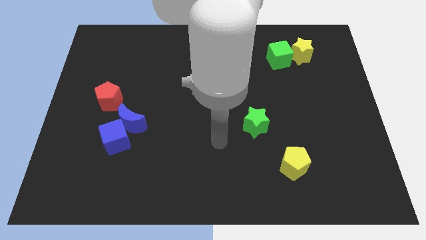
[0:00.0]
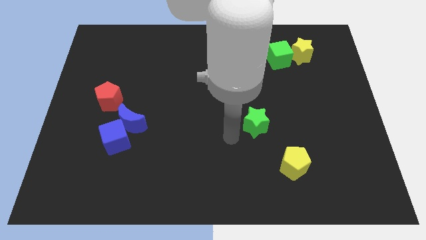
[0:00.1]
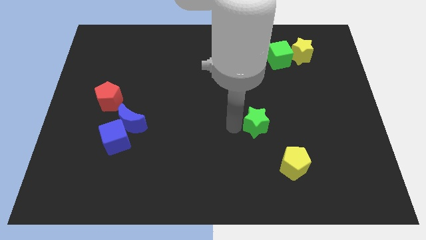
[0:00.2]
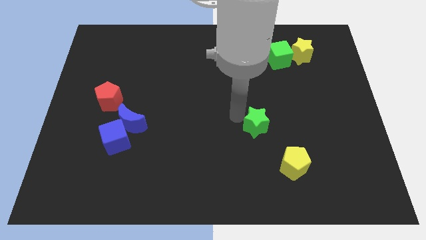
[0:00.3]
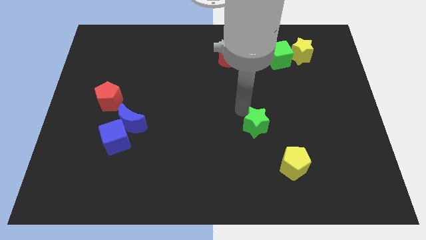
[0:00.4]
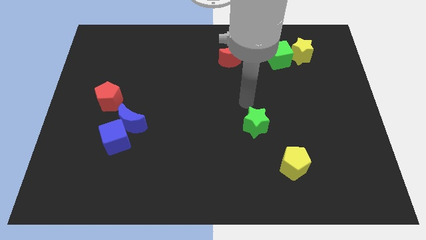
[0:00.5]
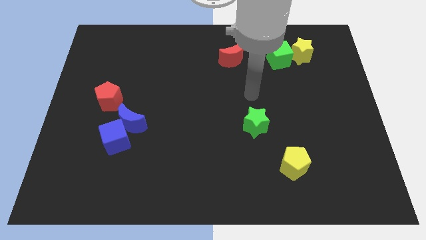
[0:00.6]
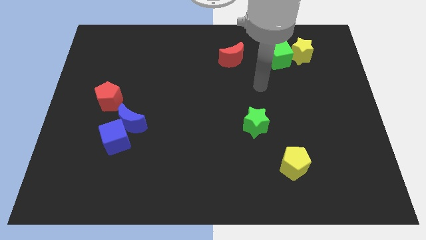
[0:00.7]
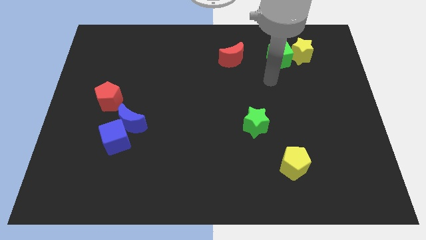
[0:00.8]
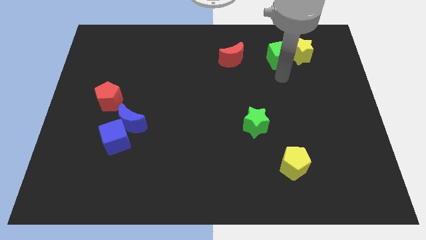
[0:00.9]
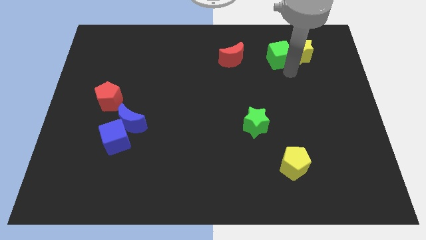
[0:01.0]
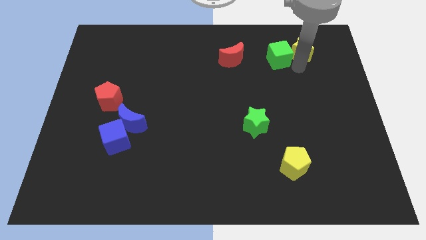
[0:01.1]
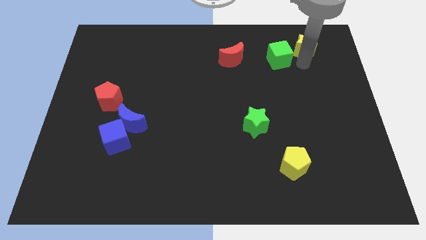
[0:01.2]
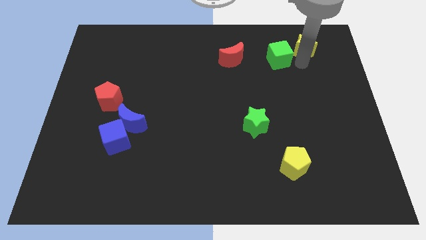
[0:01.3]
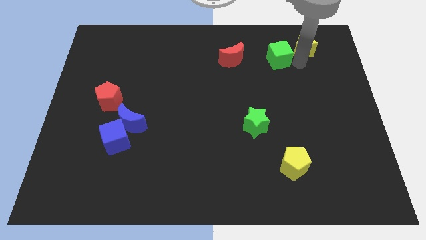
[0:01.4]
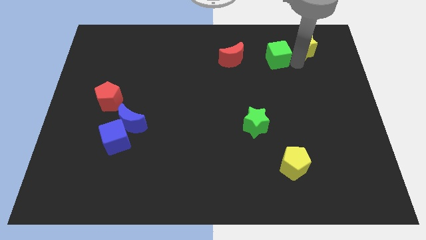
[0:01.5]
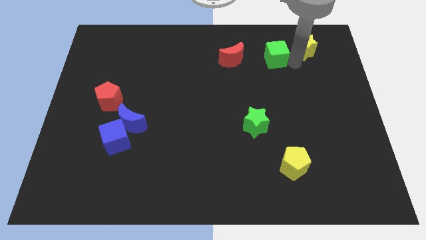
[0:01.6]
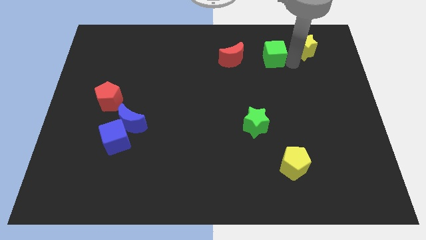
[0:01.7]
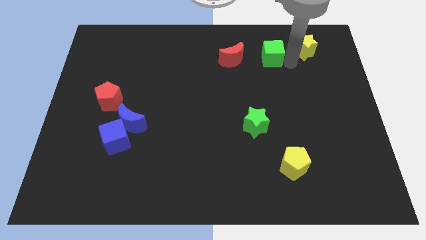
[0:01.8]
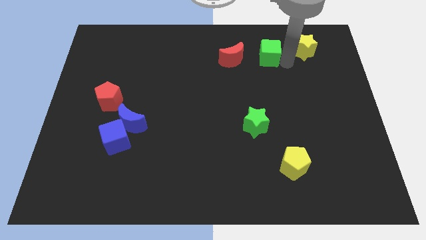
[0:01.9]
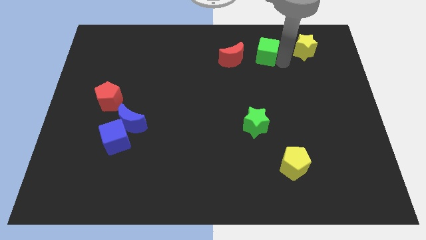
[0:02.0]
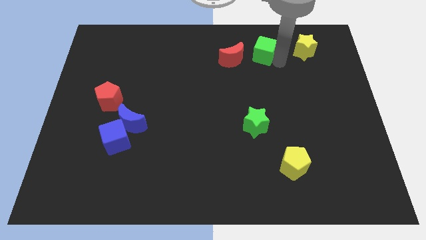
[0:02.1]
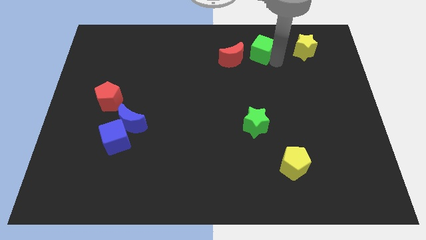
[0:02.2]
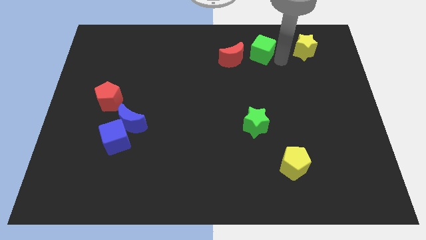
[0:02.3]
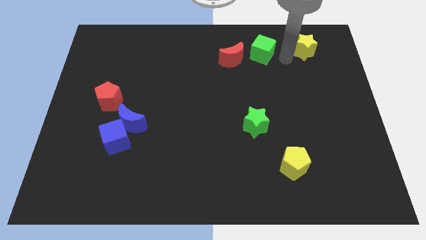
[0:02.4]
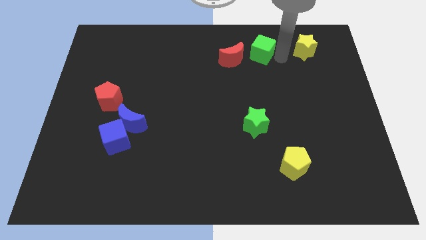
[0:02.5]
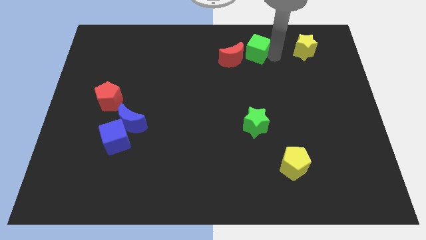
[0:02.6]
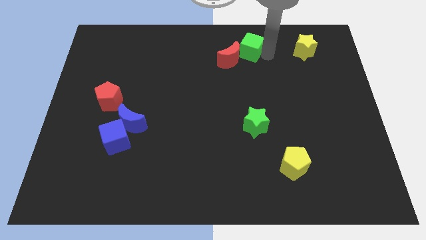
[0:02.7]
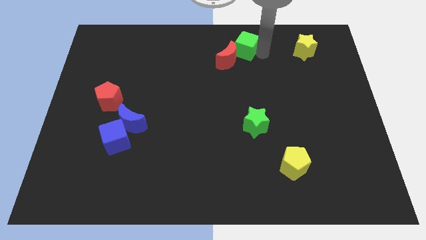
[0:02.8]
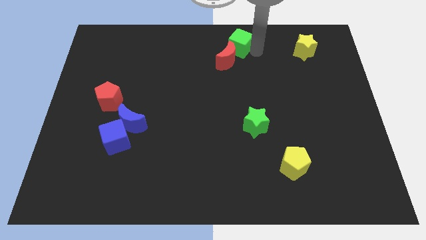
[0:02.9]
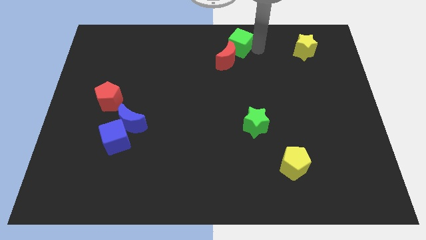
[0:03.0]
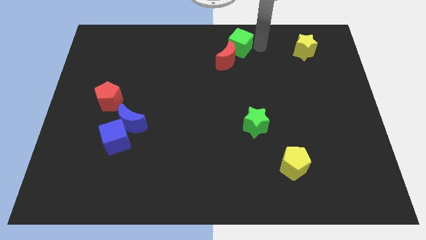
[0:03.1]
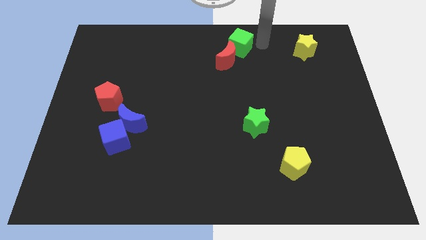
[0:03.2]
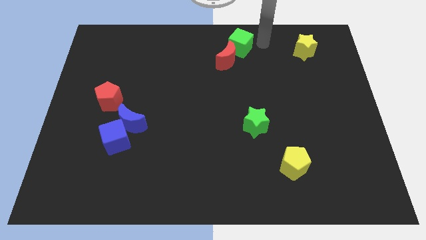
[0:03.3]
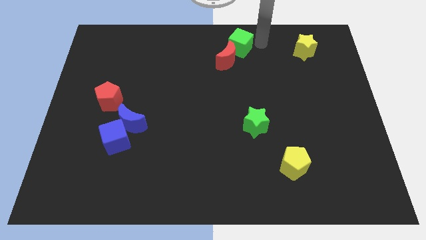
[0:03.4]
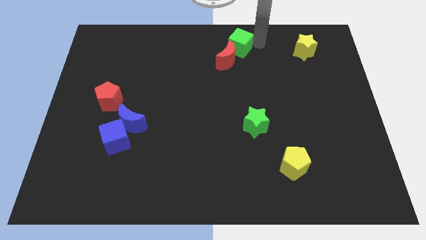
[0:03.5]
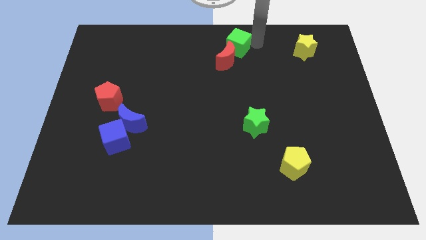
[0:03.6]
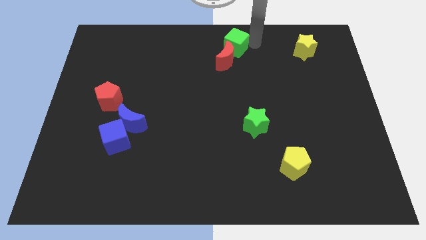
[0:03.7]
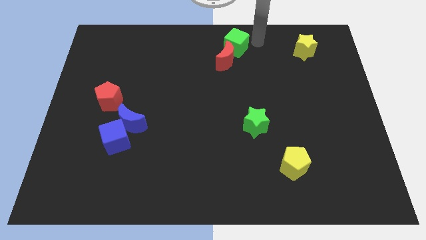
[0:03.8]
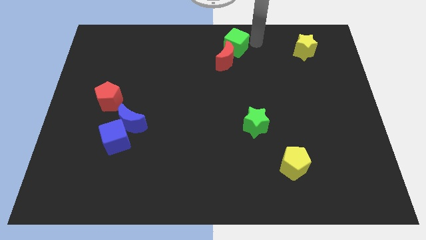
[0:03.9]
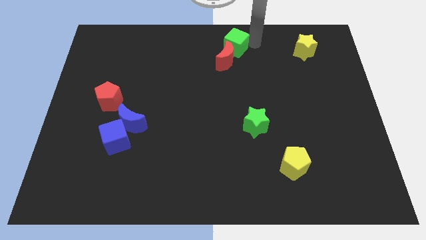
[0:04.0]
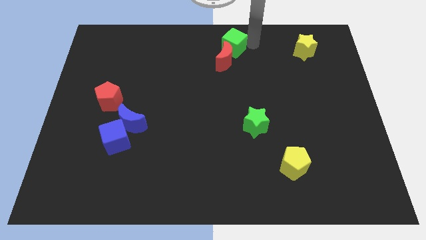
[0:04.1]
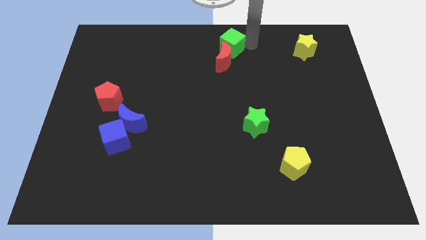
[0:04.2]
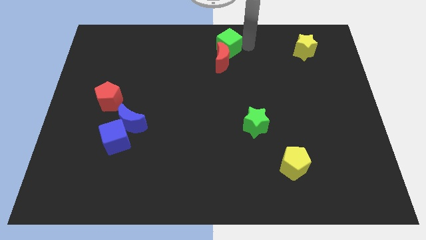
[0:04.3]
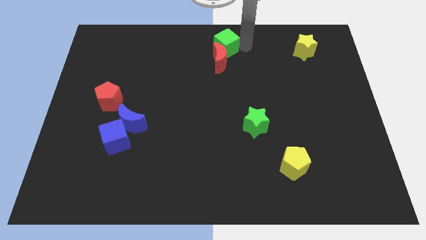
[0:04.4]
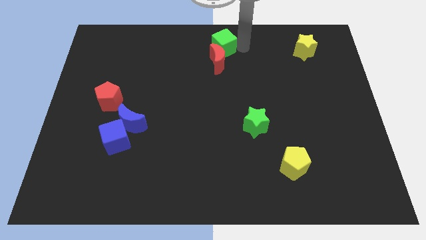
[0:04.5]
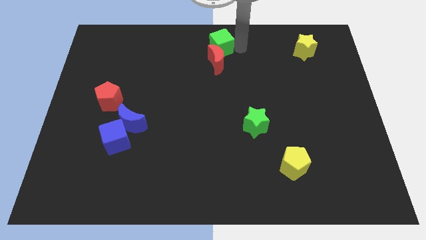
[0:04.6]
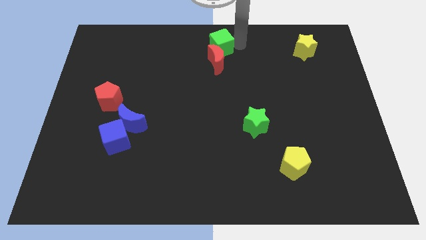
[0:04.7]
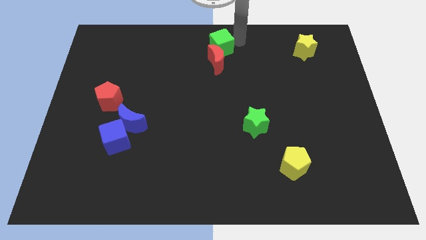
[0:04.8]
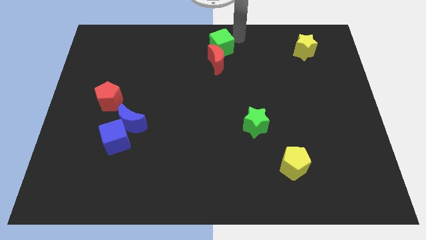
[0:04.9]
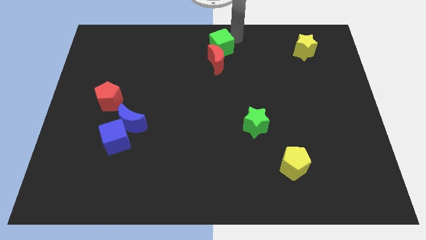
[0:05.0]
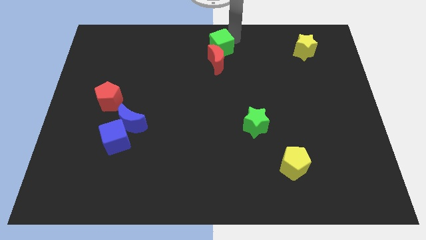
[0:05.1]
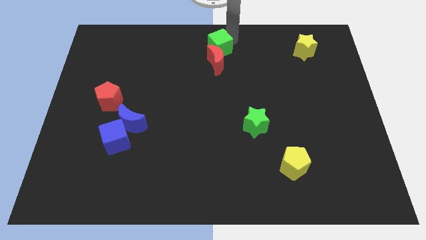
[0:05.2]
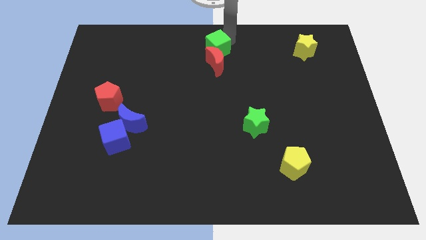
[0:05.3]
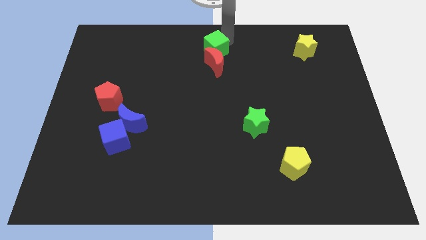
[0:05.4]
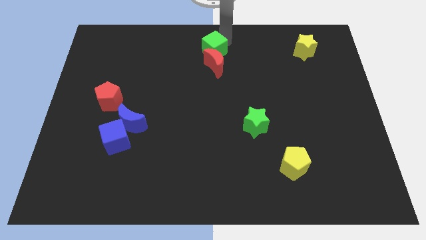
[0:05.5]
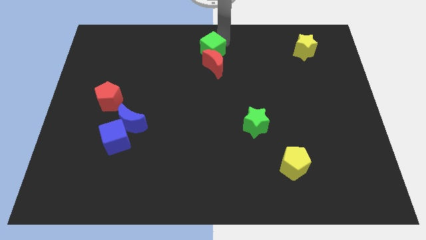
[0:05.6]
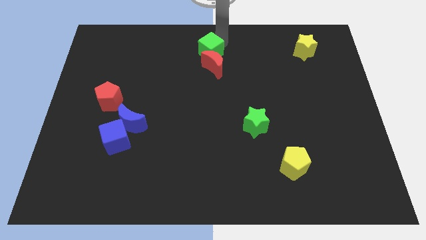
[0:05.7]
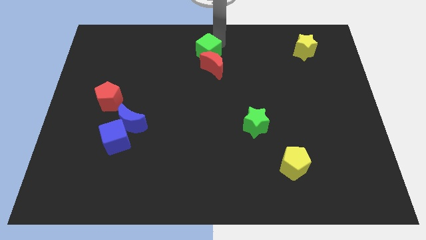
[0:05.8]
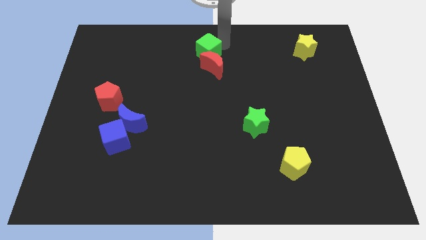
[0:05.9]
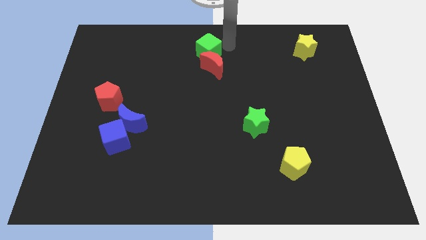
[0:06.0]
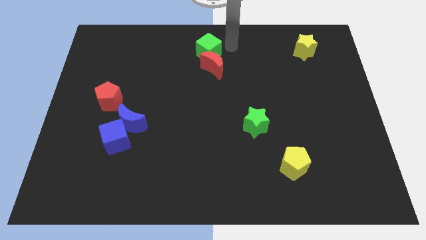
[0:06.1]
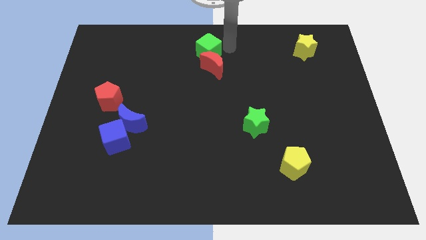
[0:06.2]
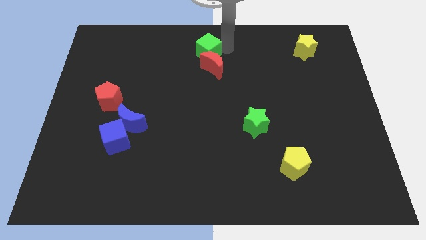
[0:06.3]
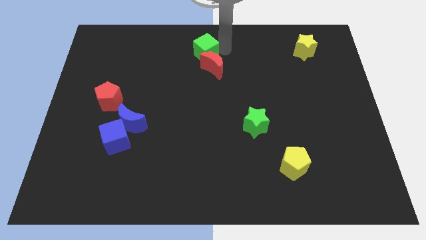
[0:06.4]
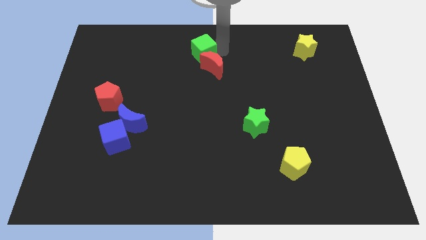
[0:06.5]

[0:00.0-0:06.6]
slide the green cube left

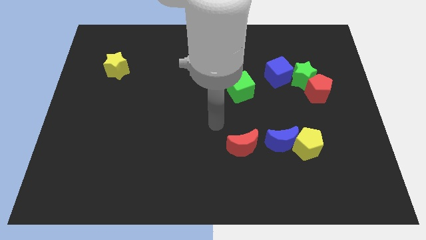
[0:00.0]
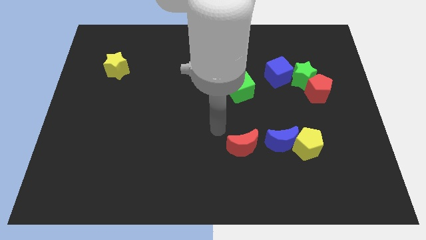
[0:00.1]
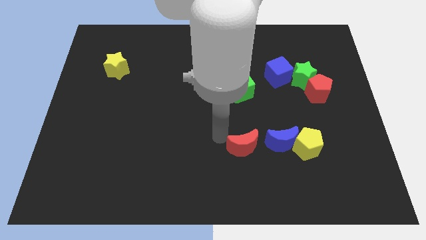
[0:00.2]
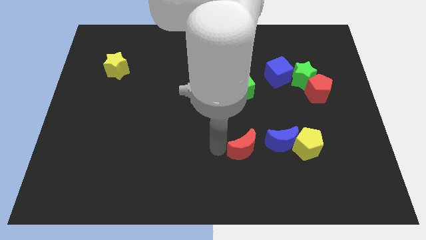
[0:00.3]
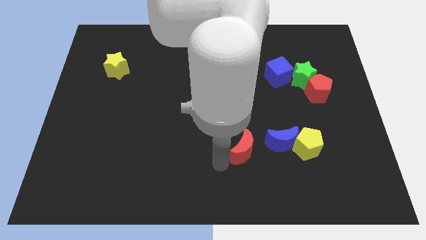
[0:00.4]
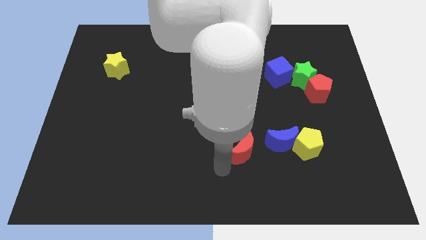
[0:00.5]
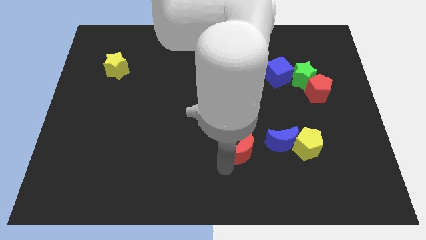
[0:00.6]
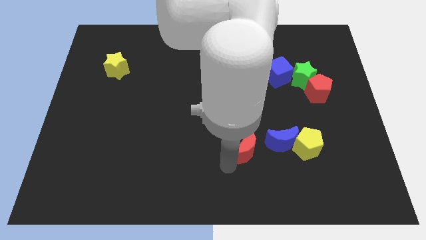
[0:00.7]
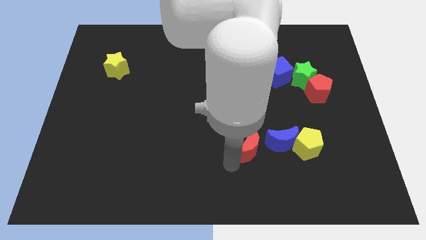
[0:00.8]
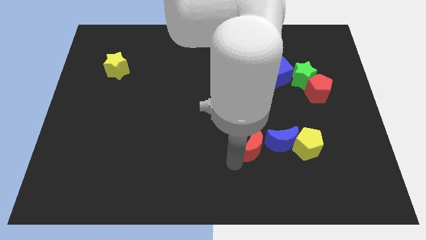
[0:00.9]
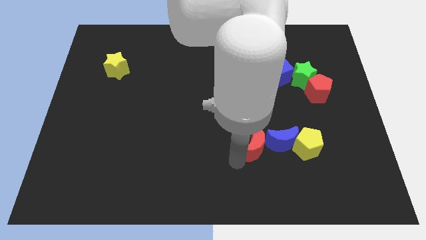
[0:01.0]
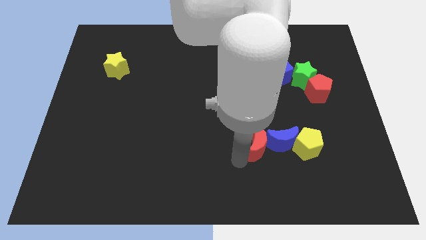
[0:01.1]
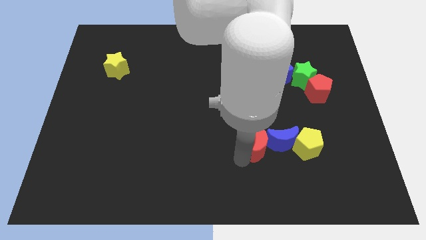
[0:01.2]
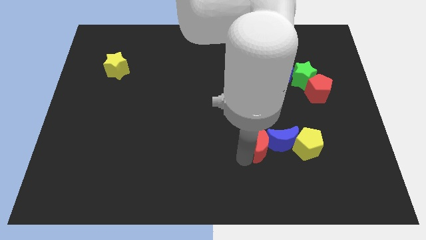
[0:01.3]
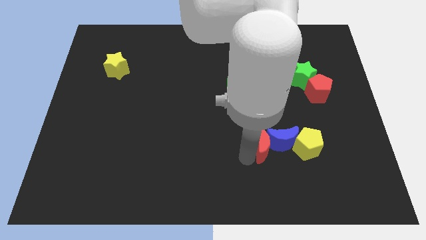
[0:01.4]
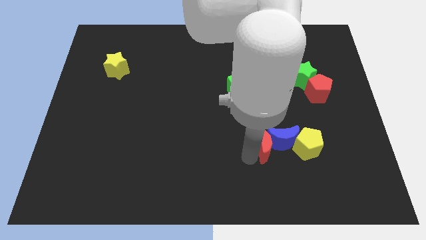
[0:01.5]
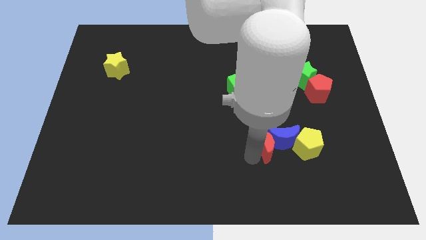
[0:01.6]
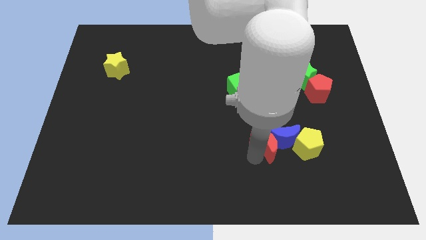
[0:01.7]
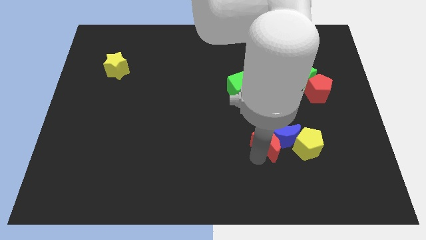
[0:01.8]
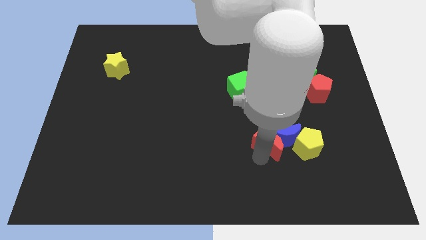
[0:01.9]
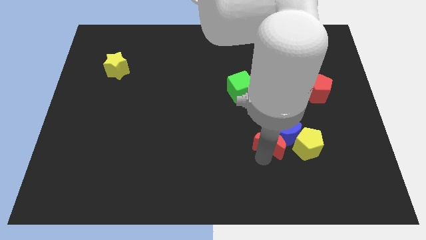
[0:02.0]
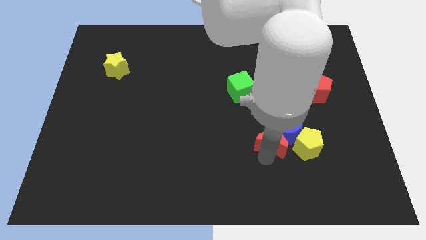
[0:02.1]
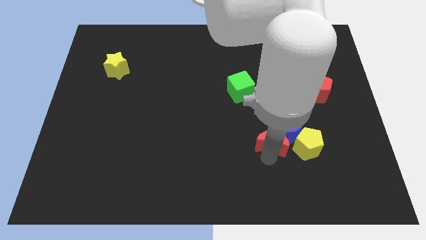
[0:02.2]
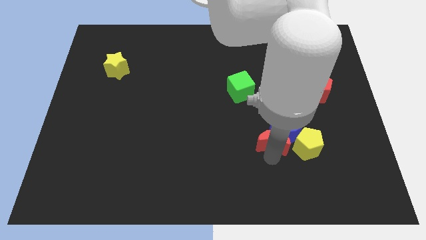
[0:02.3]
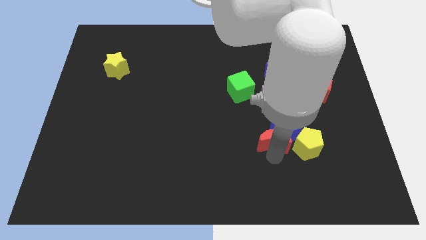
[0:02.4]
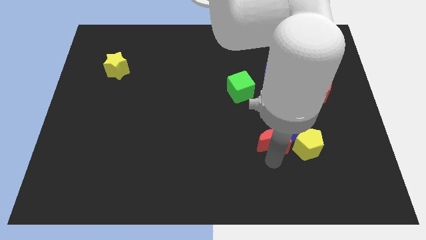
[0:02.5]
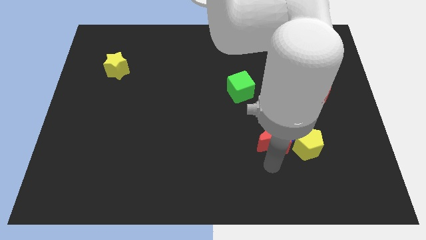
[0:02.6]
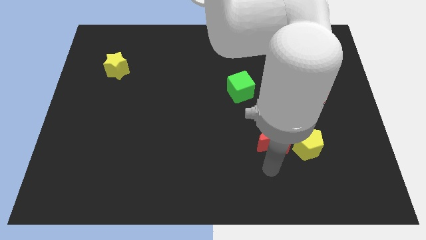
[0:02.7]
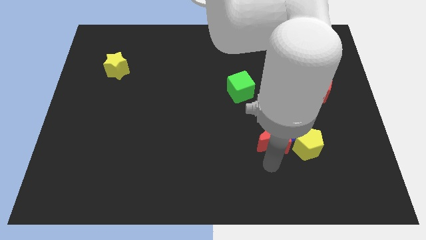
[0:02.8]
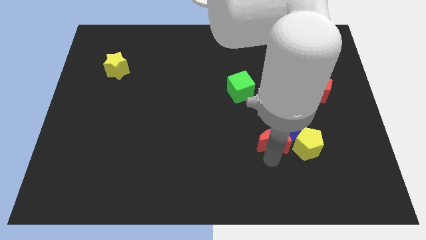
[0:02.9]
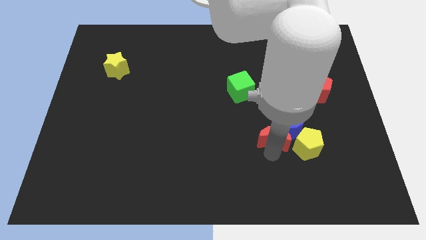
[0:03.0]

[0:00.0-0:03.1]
slightly slide the red moon to the right
